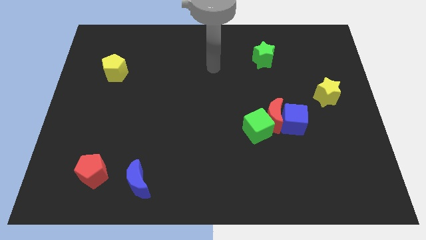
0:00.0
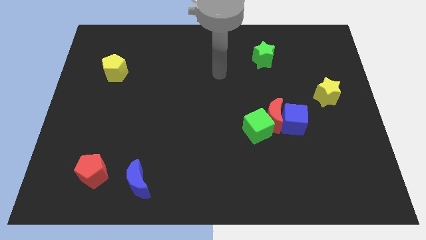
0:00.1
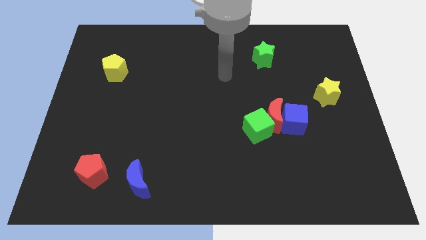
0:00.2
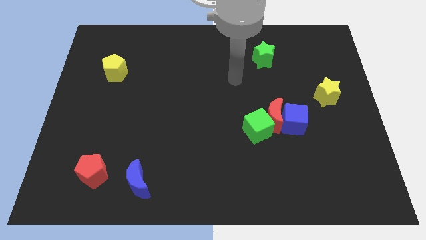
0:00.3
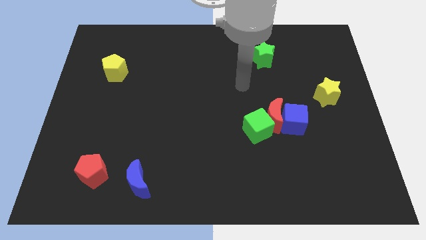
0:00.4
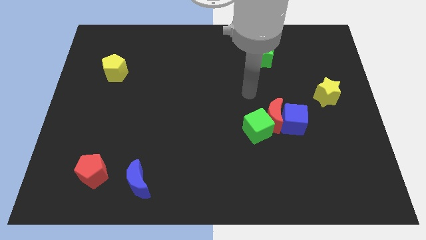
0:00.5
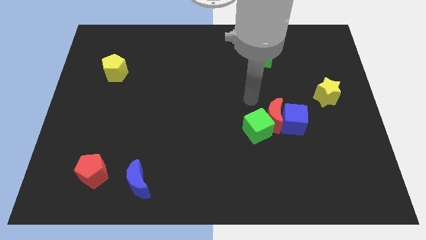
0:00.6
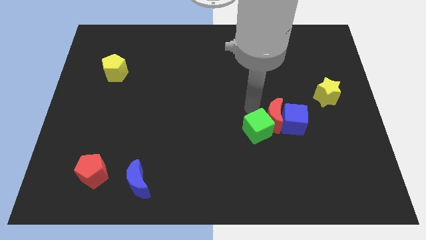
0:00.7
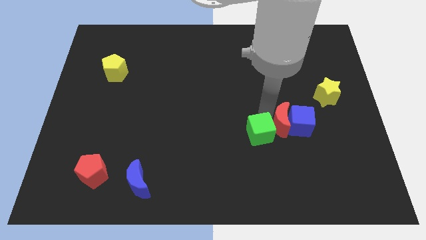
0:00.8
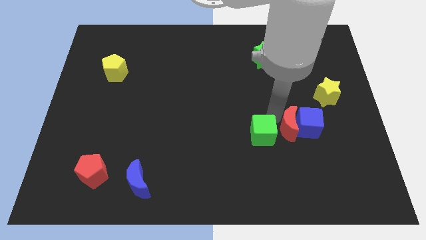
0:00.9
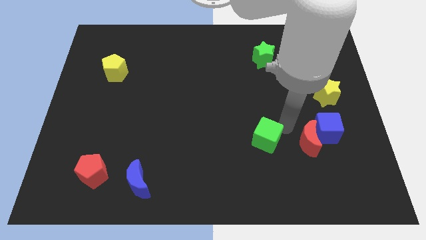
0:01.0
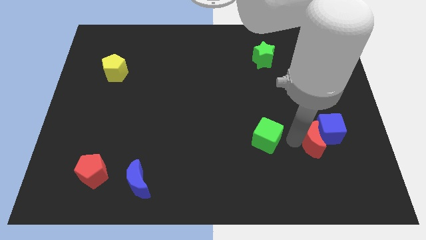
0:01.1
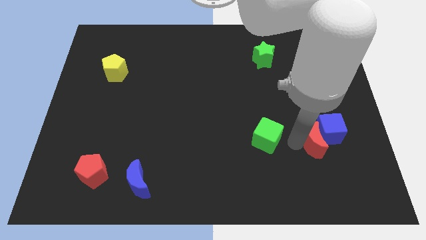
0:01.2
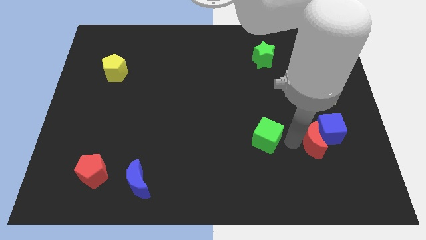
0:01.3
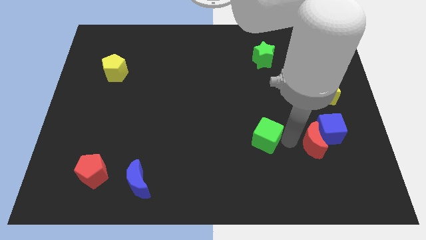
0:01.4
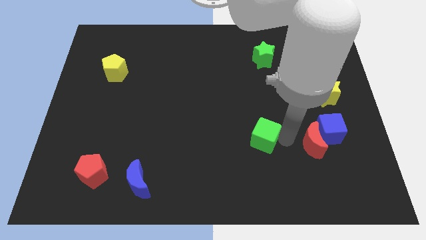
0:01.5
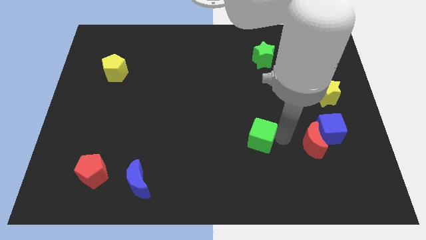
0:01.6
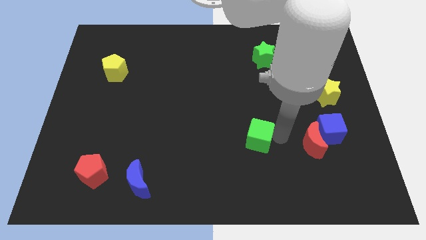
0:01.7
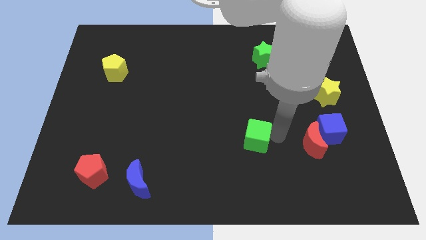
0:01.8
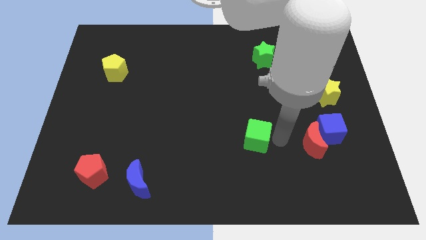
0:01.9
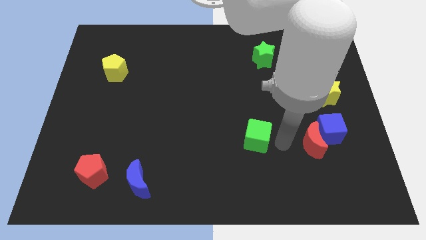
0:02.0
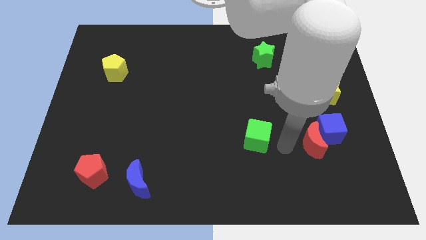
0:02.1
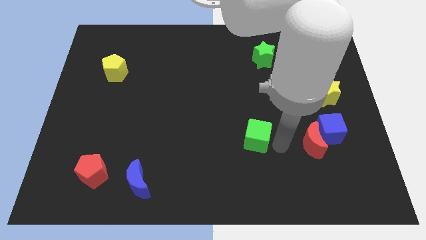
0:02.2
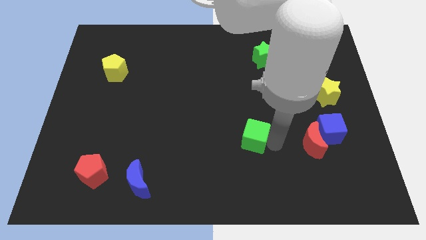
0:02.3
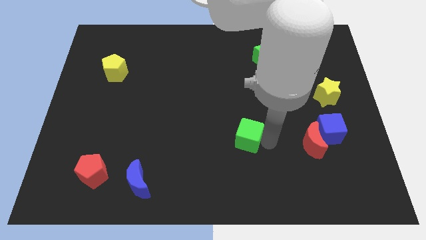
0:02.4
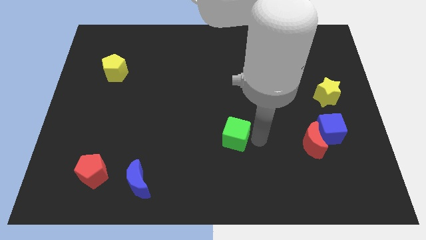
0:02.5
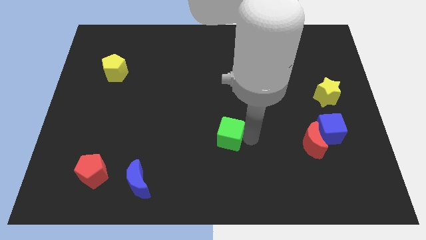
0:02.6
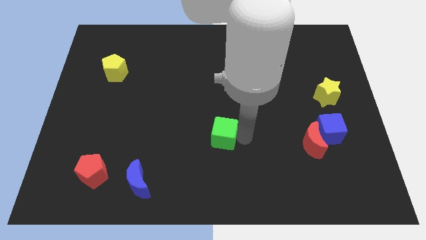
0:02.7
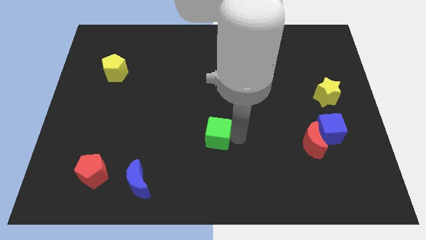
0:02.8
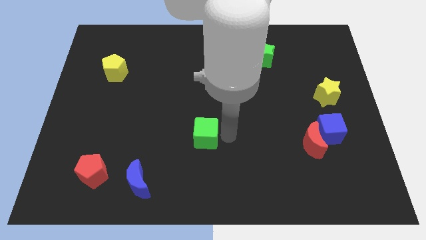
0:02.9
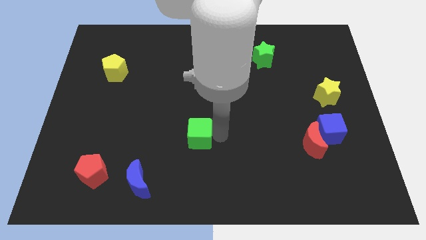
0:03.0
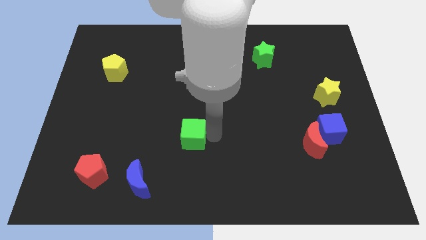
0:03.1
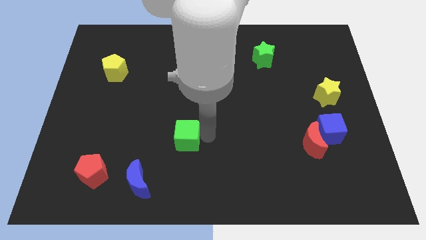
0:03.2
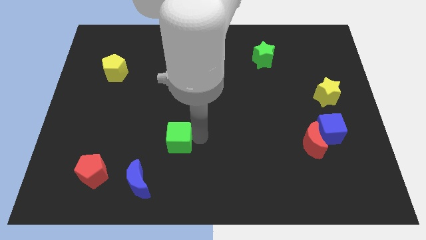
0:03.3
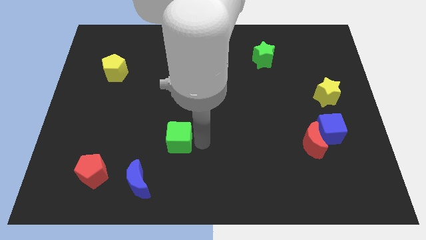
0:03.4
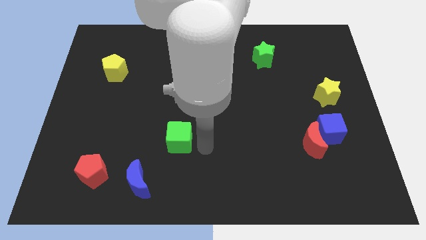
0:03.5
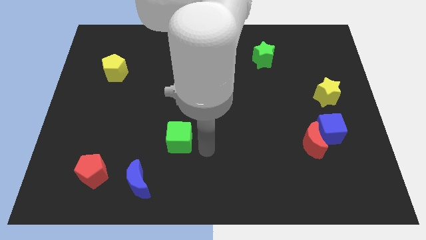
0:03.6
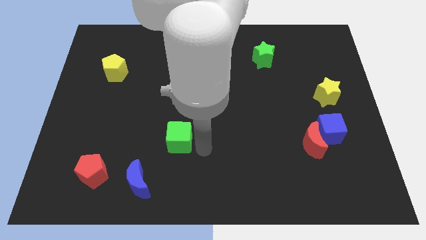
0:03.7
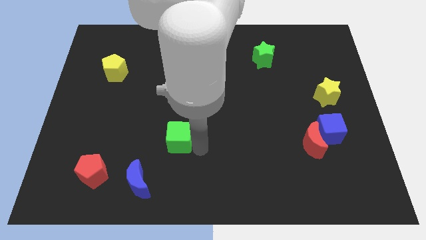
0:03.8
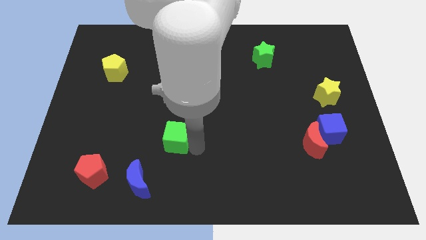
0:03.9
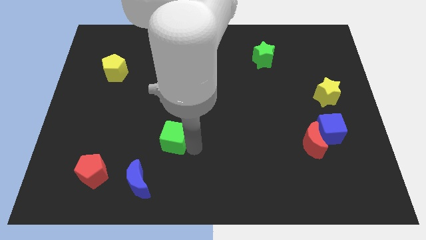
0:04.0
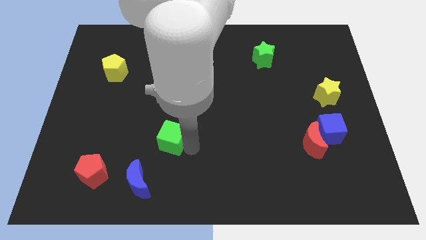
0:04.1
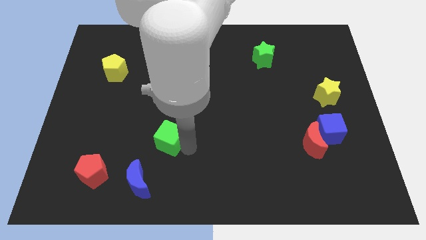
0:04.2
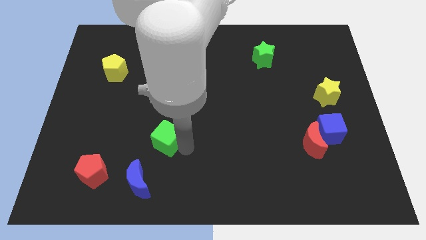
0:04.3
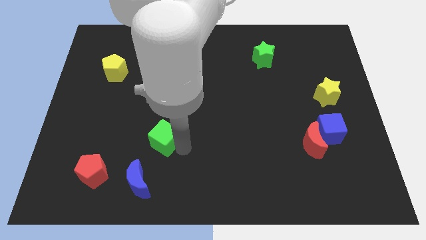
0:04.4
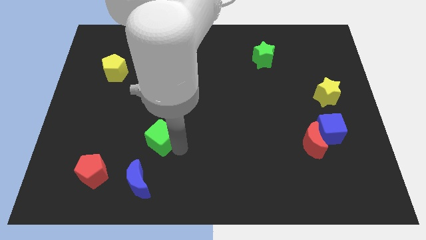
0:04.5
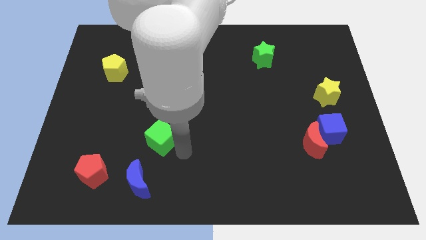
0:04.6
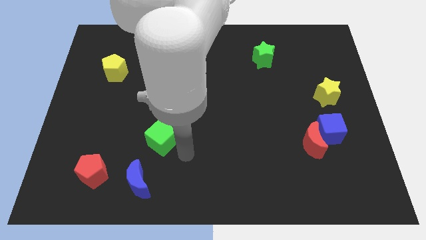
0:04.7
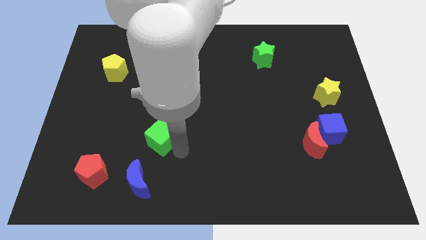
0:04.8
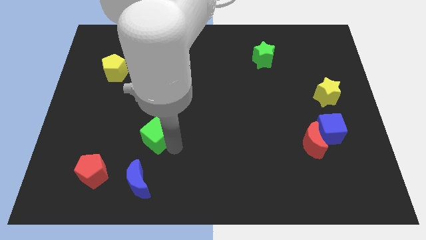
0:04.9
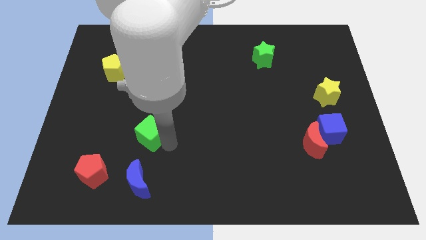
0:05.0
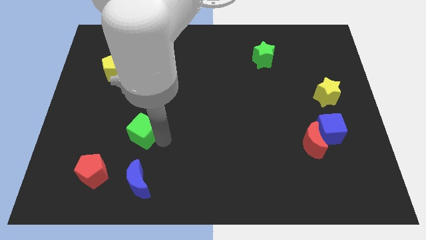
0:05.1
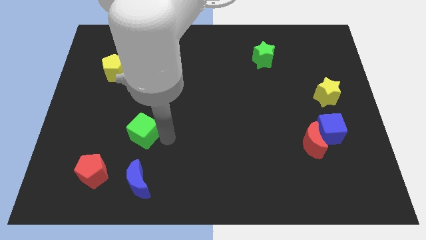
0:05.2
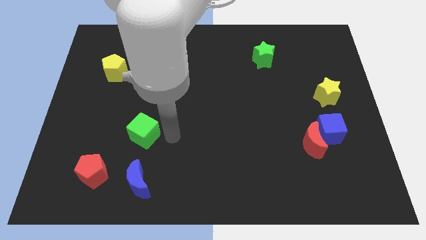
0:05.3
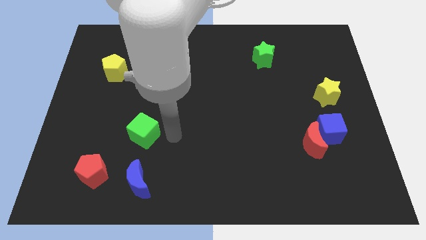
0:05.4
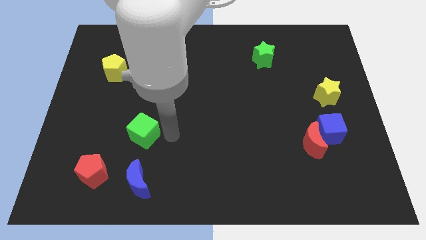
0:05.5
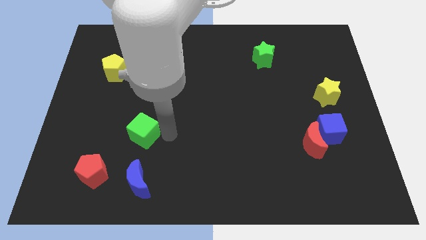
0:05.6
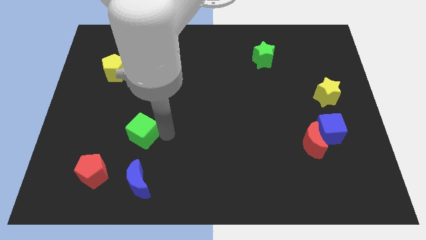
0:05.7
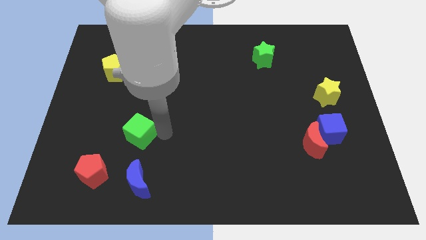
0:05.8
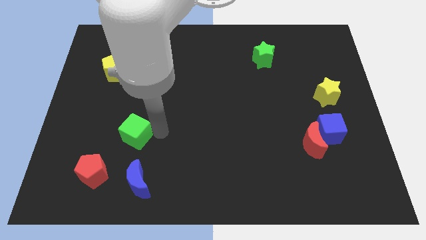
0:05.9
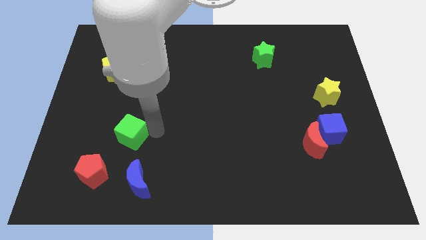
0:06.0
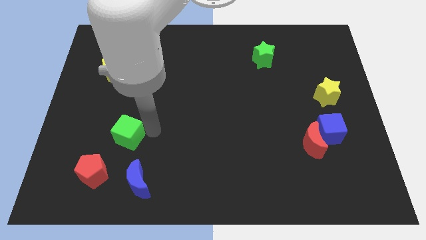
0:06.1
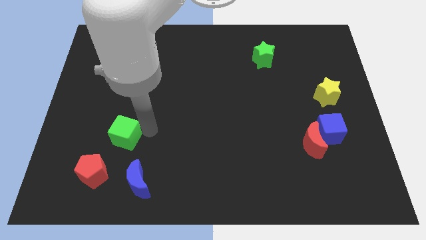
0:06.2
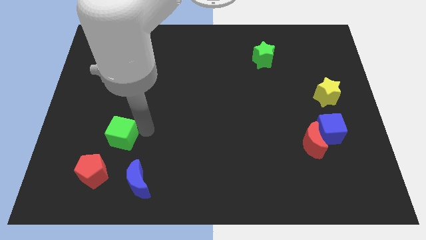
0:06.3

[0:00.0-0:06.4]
put the green cube to the top side of the red pentagon

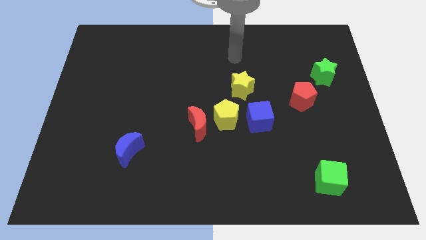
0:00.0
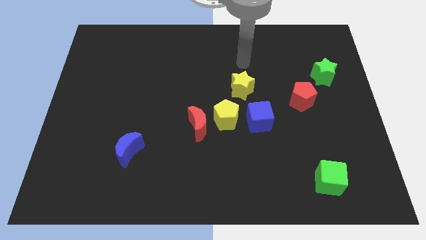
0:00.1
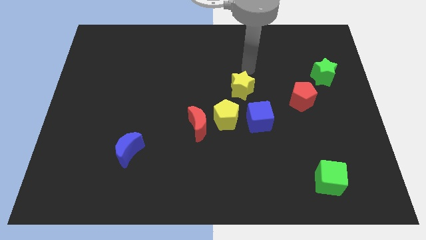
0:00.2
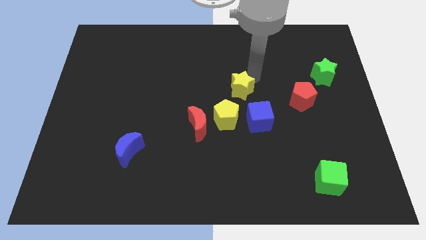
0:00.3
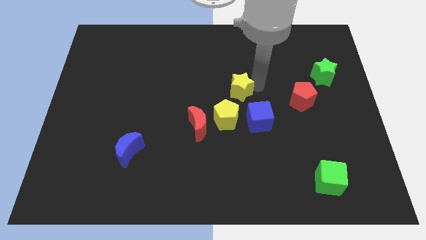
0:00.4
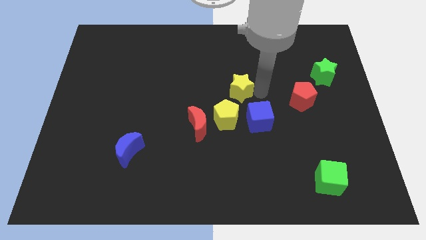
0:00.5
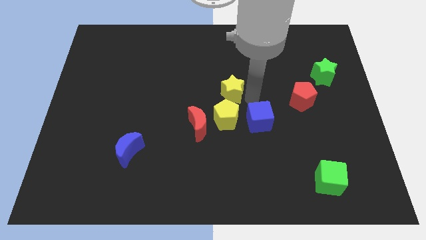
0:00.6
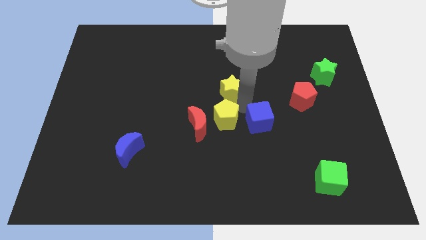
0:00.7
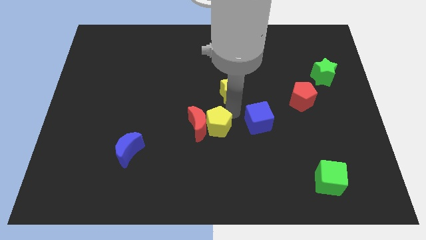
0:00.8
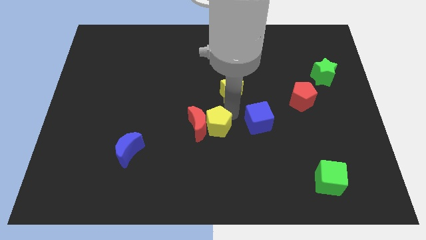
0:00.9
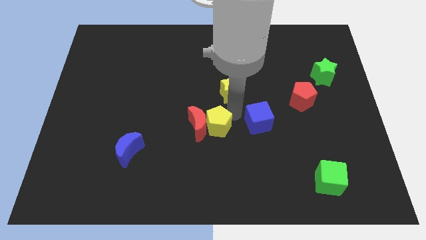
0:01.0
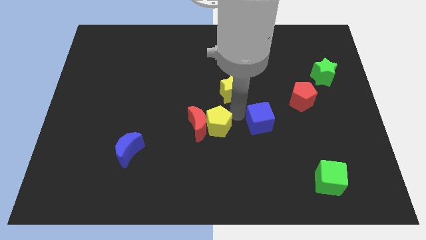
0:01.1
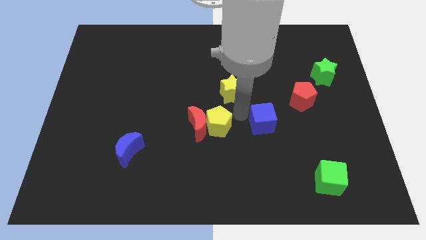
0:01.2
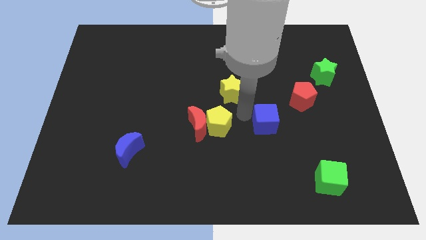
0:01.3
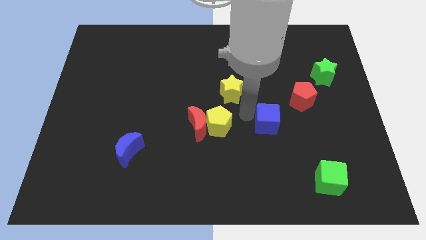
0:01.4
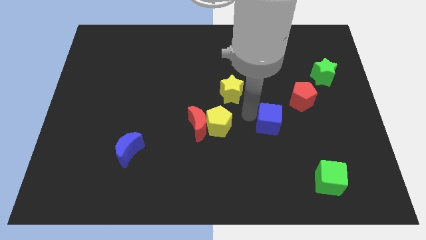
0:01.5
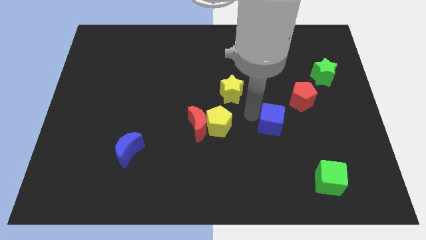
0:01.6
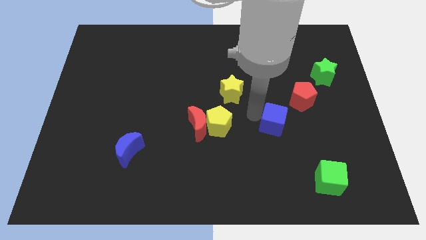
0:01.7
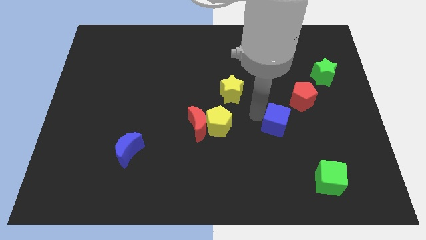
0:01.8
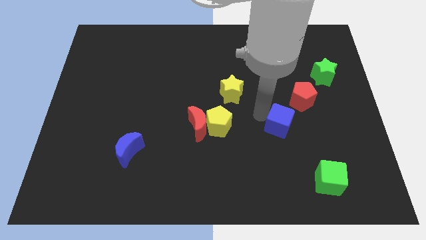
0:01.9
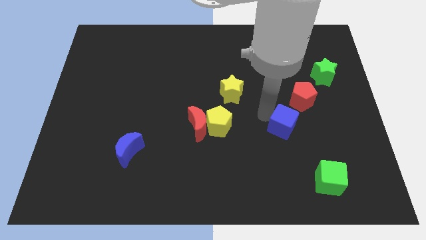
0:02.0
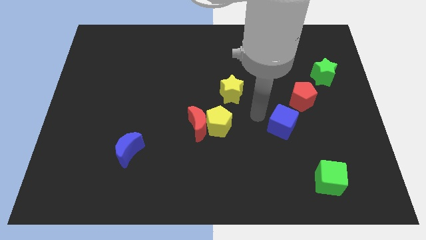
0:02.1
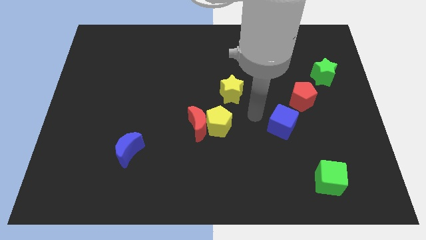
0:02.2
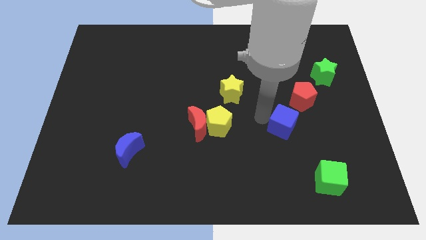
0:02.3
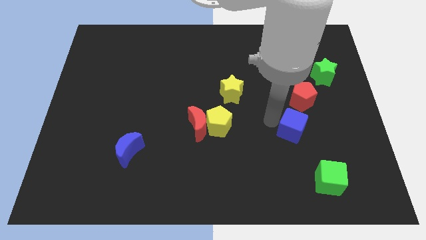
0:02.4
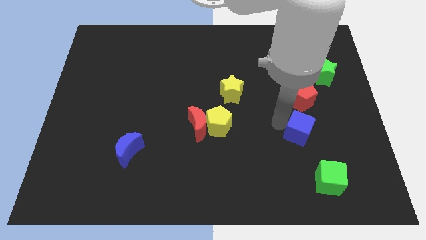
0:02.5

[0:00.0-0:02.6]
slide the blue cube to the top of the green cube
